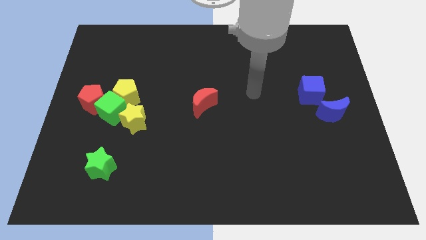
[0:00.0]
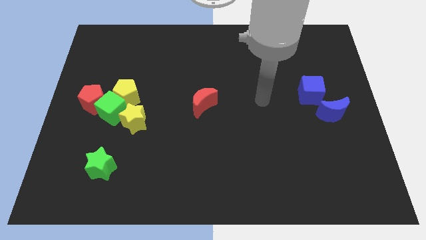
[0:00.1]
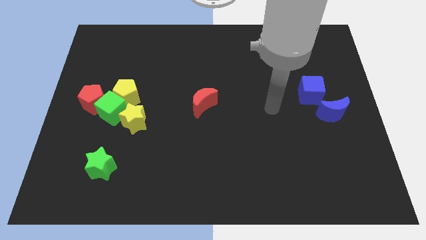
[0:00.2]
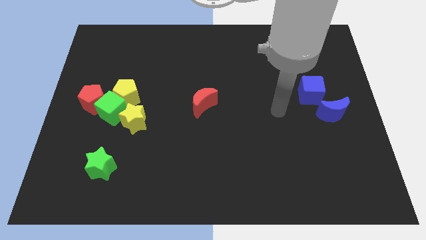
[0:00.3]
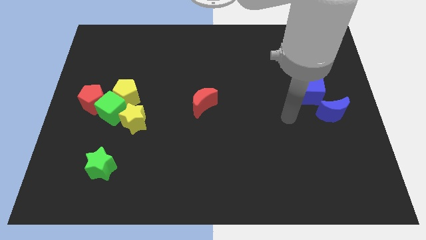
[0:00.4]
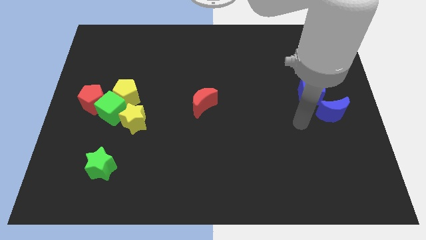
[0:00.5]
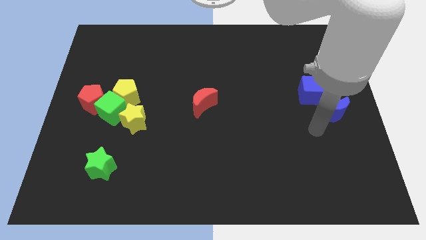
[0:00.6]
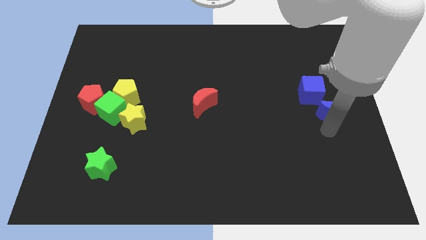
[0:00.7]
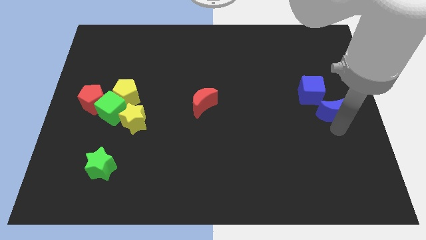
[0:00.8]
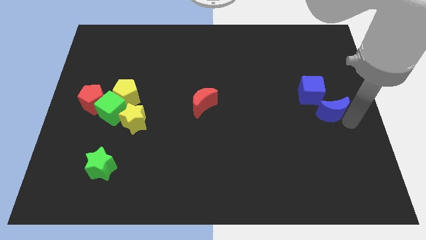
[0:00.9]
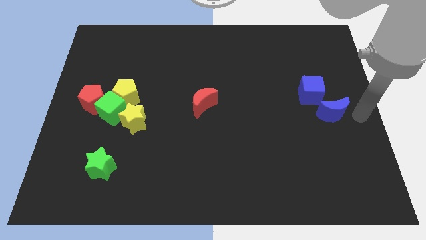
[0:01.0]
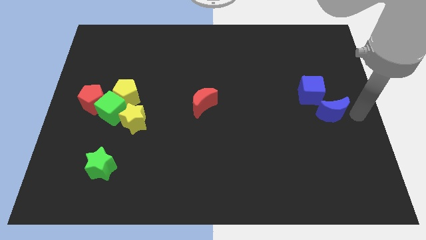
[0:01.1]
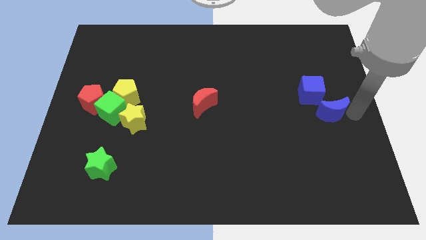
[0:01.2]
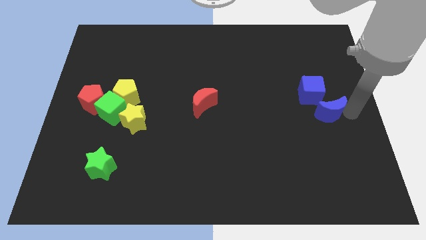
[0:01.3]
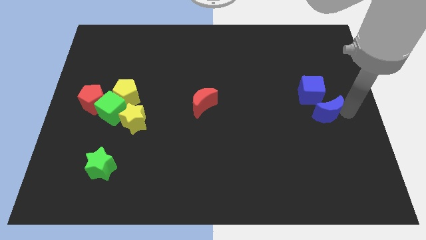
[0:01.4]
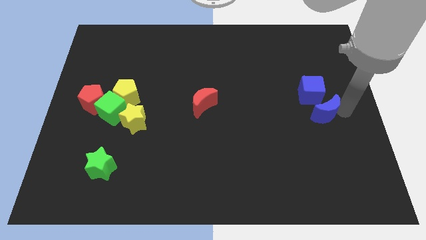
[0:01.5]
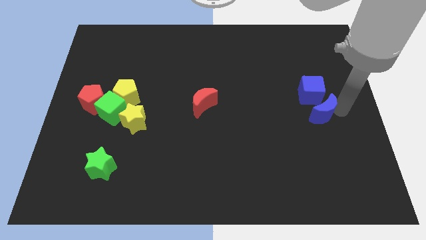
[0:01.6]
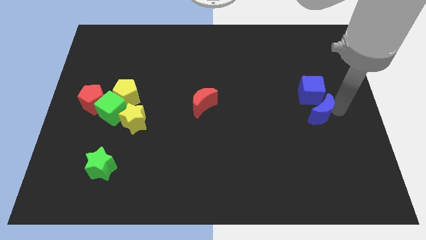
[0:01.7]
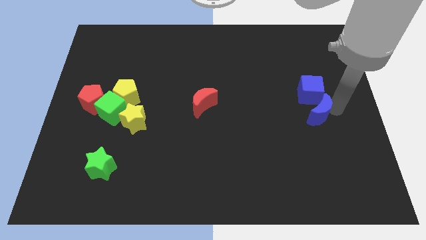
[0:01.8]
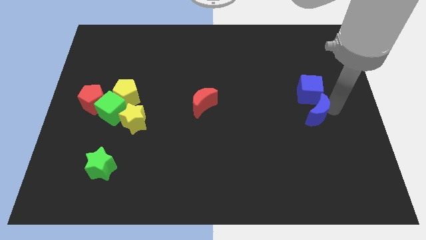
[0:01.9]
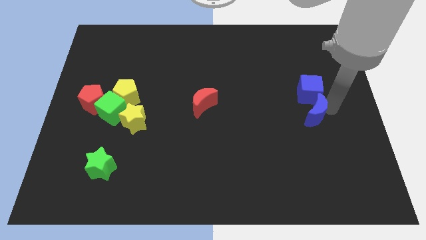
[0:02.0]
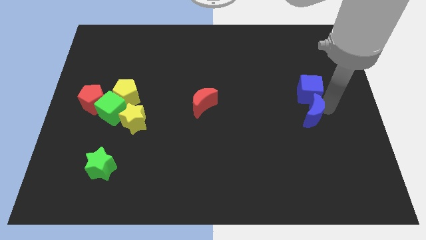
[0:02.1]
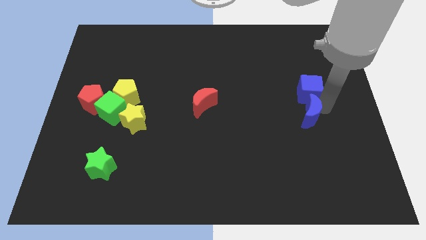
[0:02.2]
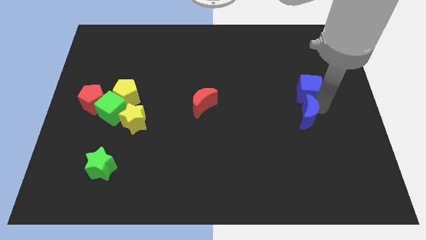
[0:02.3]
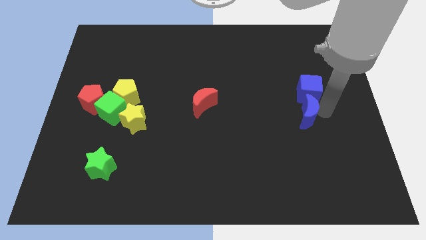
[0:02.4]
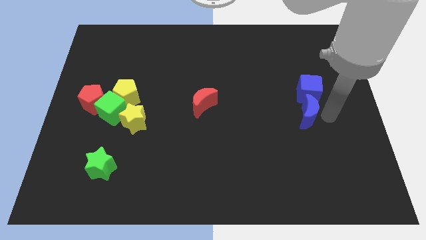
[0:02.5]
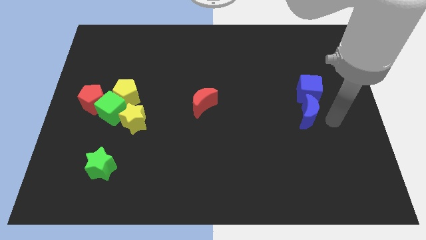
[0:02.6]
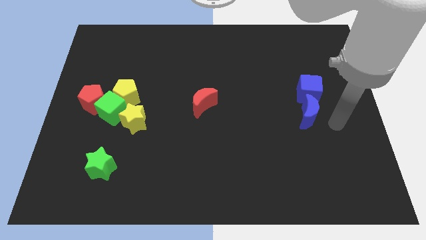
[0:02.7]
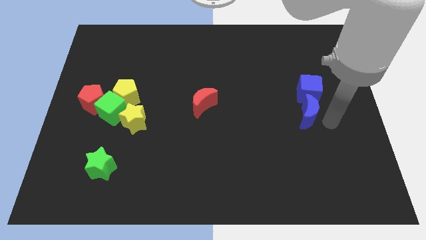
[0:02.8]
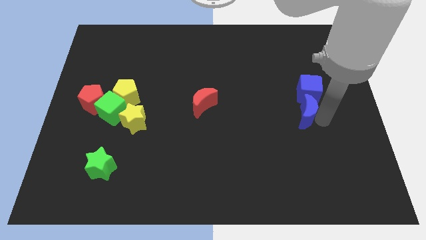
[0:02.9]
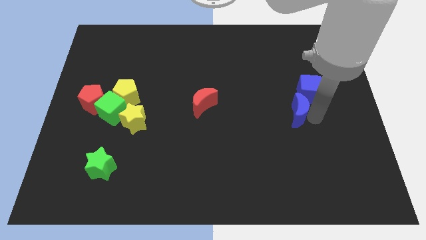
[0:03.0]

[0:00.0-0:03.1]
slightly slide the blue moon left

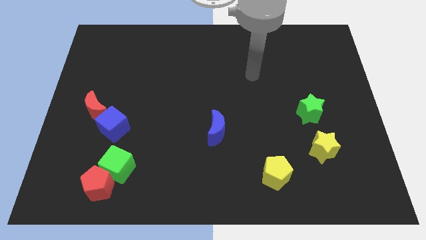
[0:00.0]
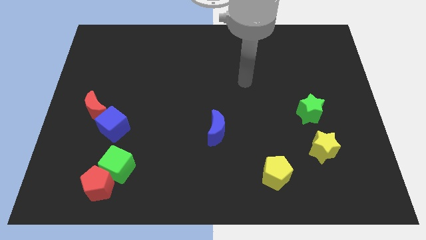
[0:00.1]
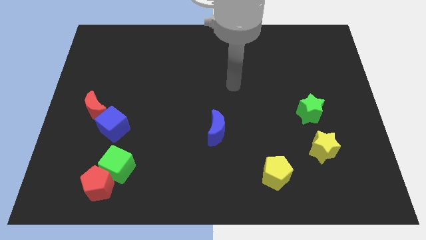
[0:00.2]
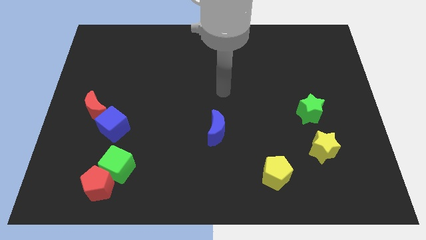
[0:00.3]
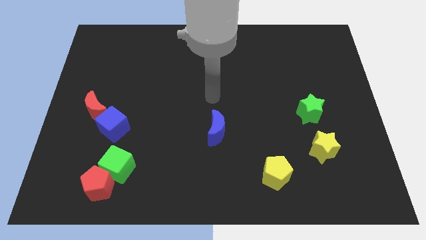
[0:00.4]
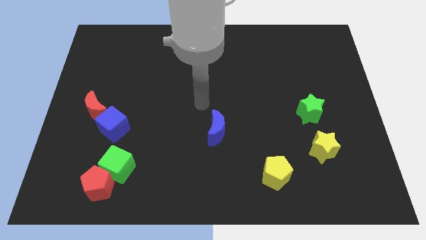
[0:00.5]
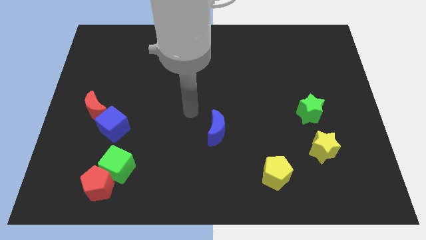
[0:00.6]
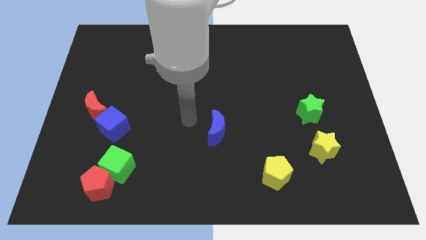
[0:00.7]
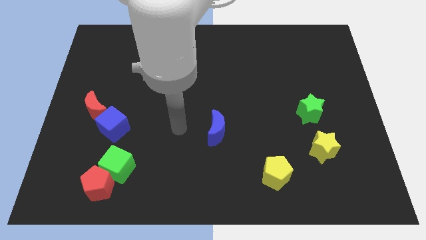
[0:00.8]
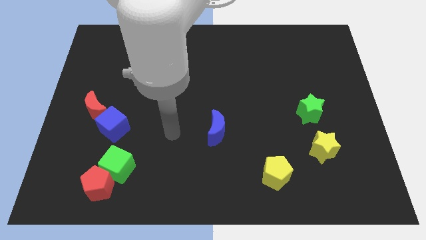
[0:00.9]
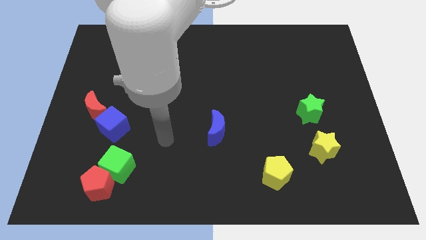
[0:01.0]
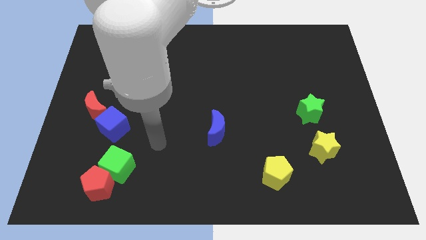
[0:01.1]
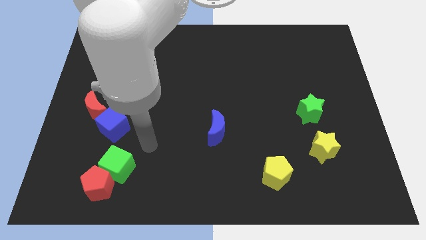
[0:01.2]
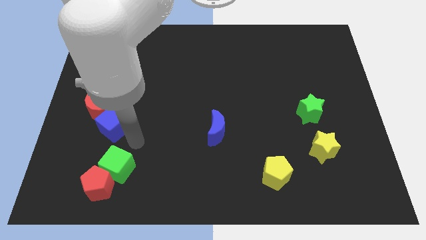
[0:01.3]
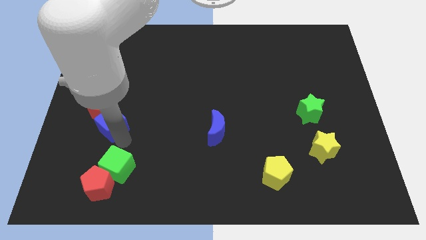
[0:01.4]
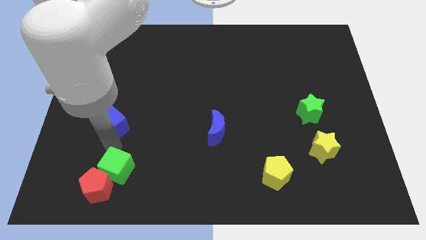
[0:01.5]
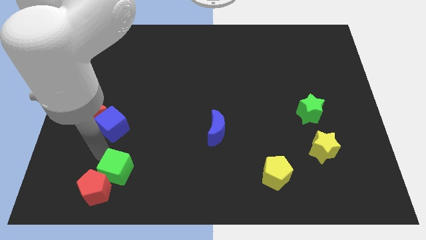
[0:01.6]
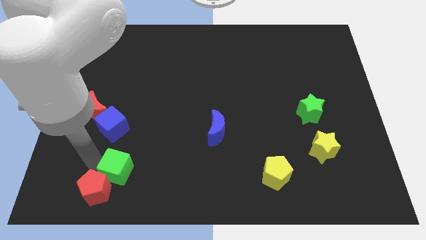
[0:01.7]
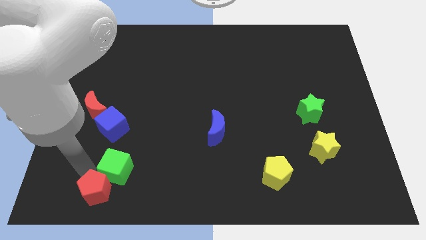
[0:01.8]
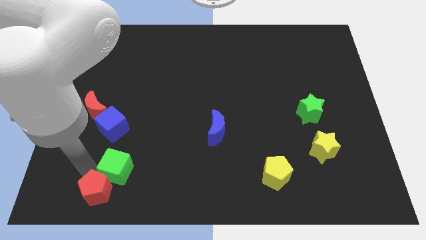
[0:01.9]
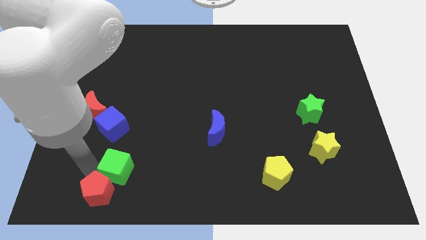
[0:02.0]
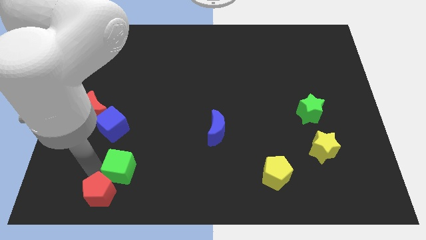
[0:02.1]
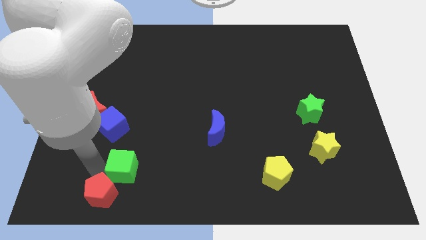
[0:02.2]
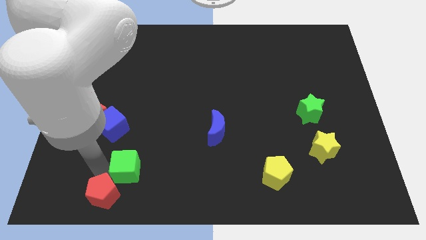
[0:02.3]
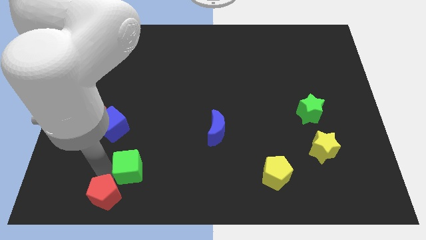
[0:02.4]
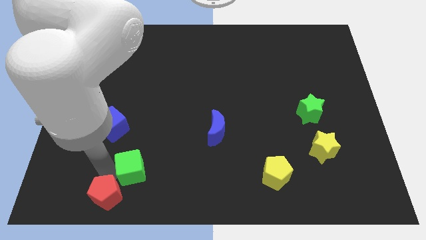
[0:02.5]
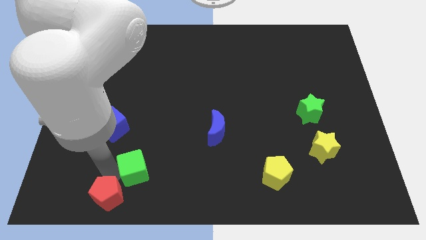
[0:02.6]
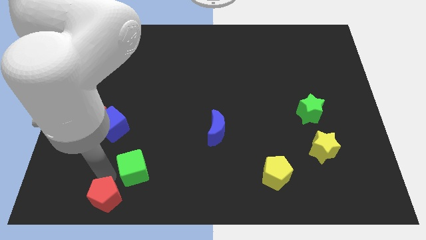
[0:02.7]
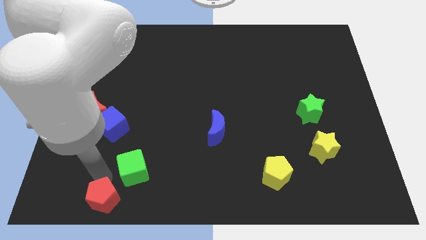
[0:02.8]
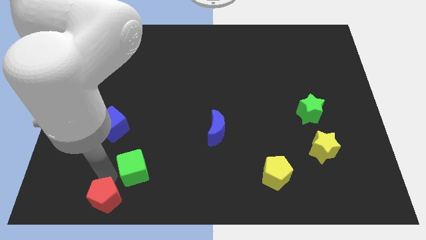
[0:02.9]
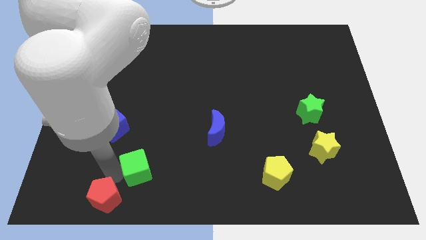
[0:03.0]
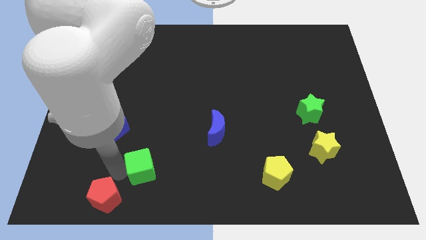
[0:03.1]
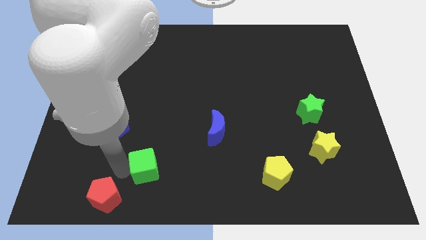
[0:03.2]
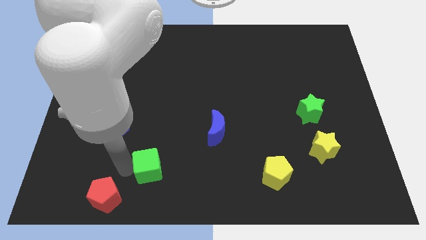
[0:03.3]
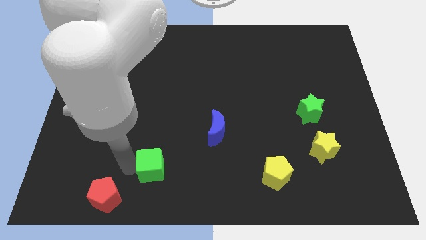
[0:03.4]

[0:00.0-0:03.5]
push the green cube right a little

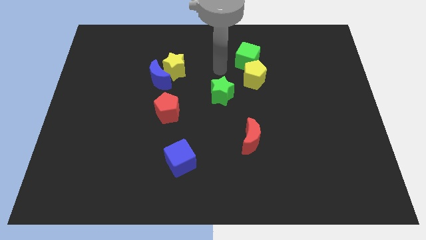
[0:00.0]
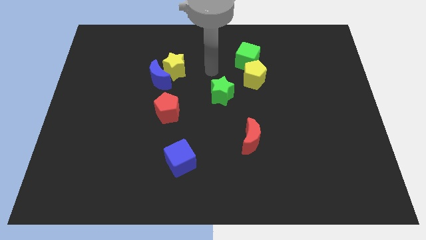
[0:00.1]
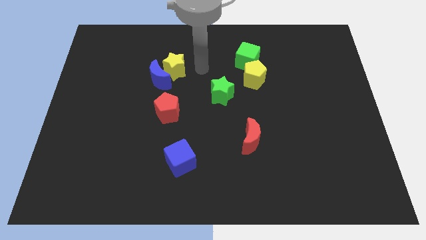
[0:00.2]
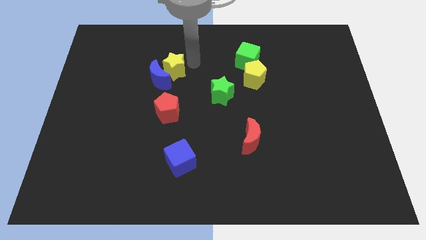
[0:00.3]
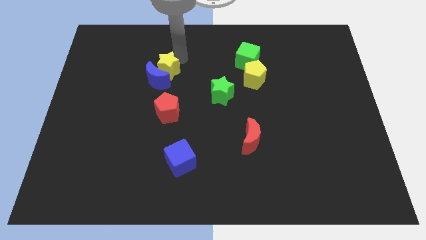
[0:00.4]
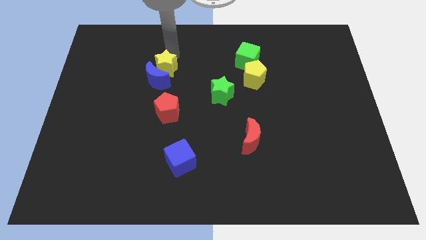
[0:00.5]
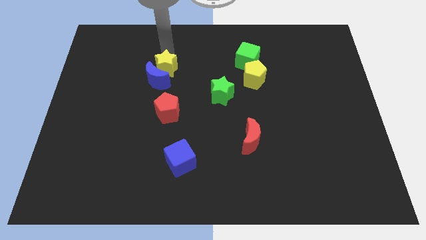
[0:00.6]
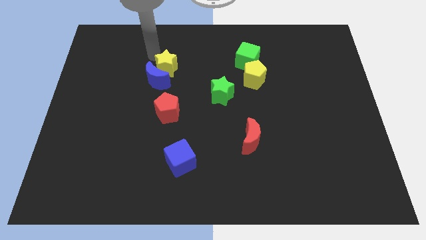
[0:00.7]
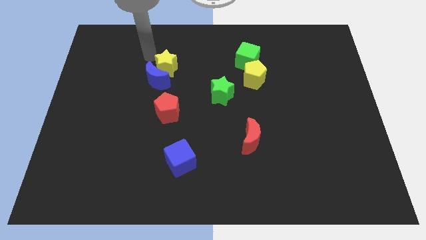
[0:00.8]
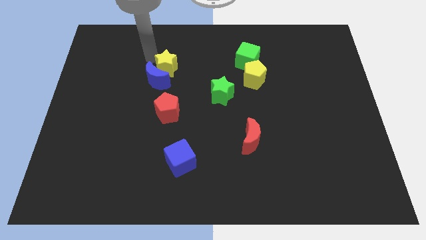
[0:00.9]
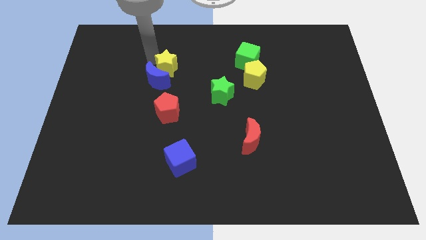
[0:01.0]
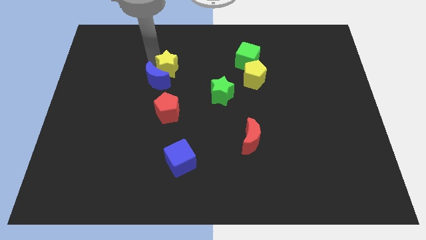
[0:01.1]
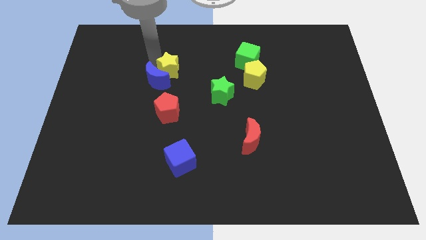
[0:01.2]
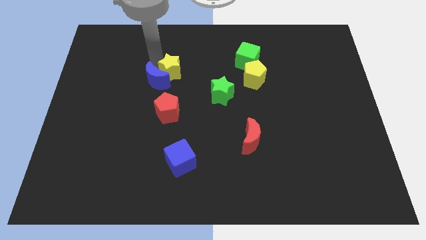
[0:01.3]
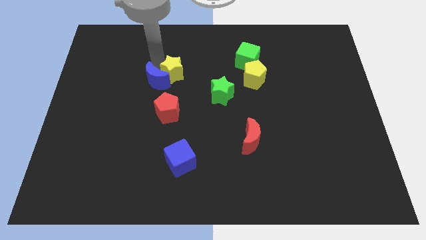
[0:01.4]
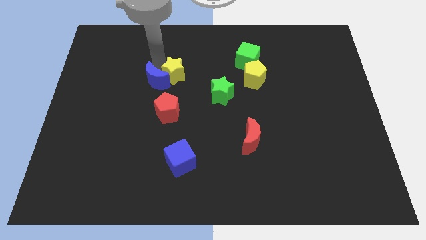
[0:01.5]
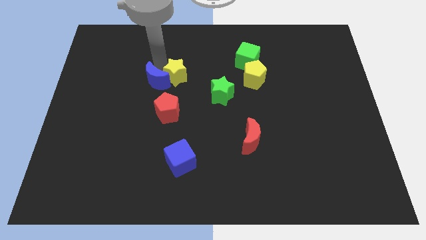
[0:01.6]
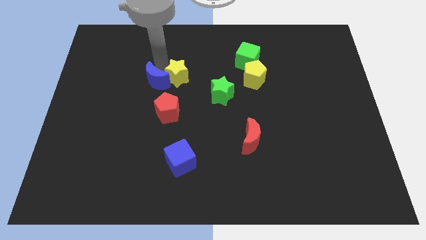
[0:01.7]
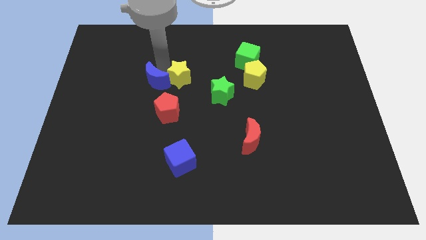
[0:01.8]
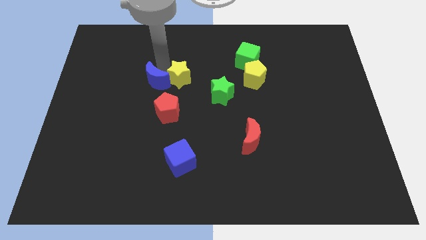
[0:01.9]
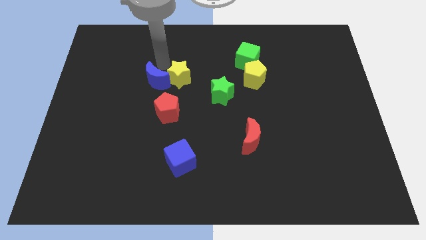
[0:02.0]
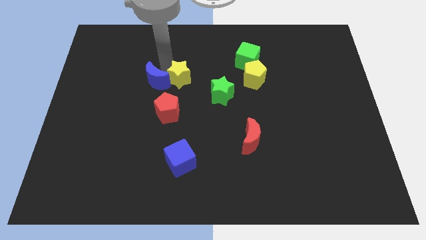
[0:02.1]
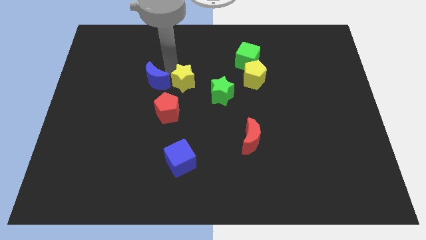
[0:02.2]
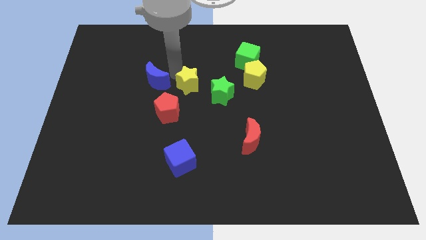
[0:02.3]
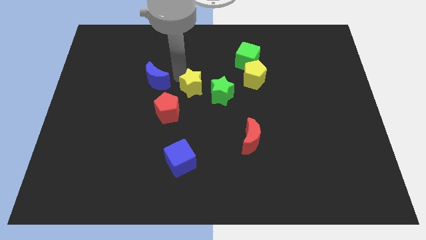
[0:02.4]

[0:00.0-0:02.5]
slightly push the yellow star diagonally down and right
